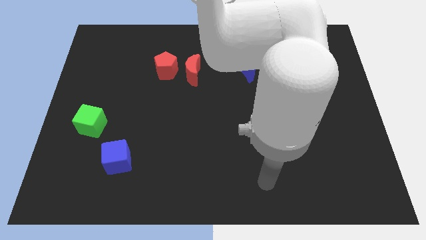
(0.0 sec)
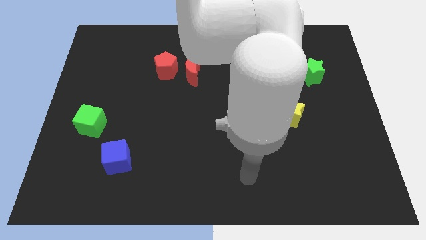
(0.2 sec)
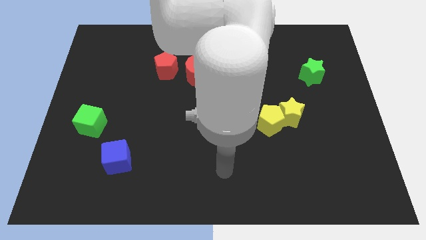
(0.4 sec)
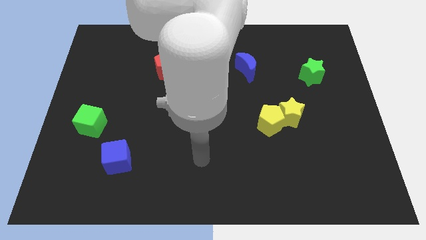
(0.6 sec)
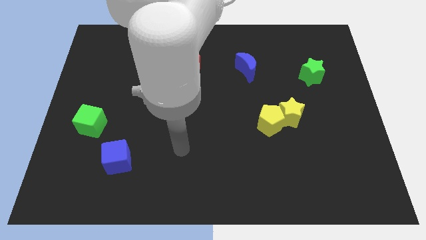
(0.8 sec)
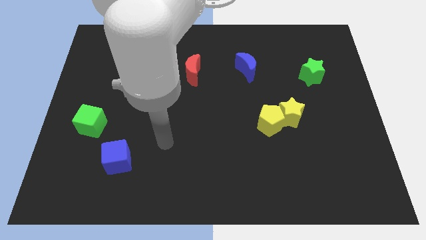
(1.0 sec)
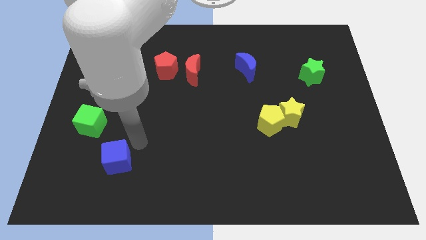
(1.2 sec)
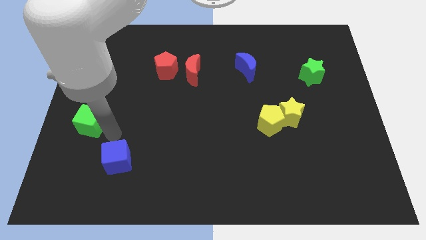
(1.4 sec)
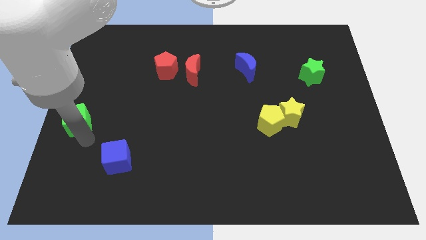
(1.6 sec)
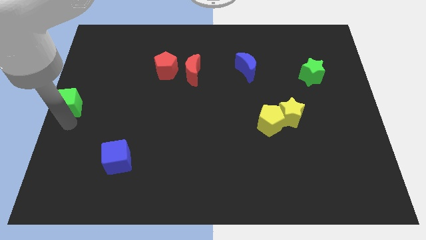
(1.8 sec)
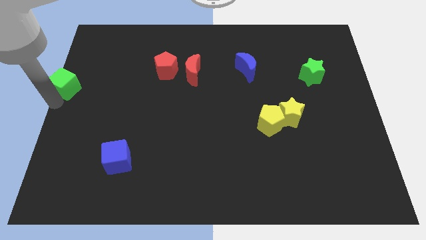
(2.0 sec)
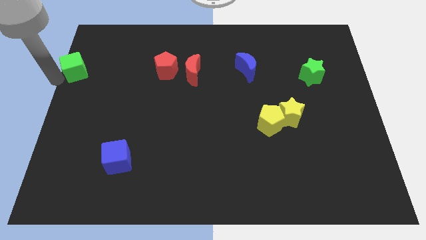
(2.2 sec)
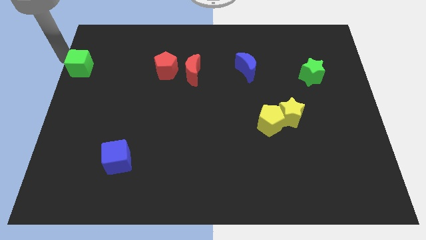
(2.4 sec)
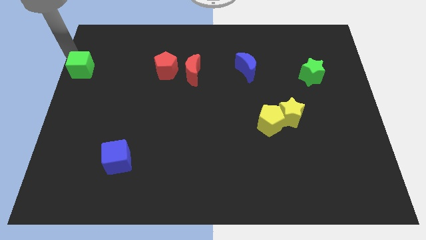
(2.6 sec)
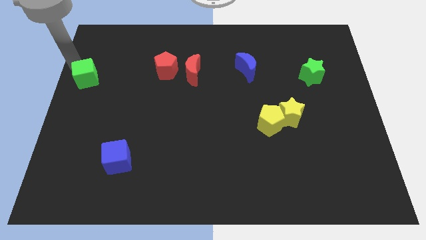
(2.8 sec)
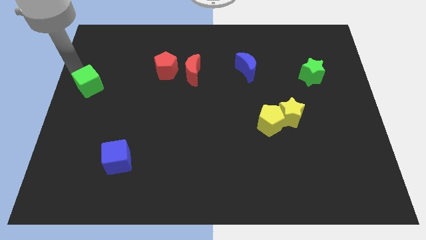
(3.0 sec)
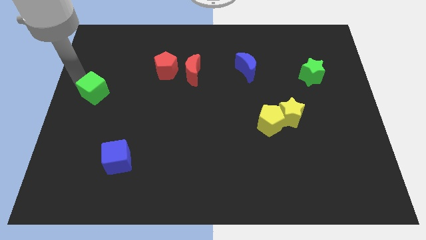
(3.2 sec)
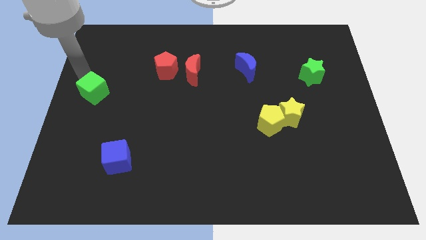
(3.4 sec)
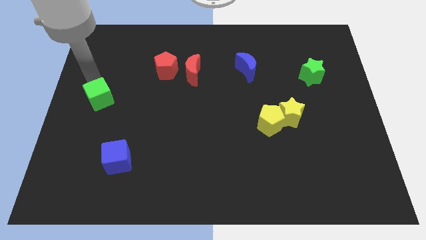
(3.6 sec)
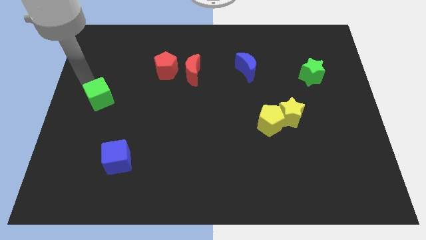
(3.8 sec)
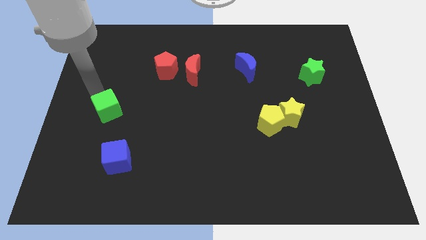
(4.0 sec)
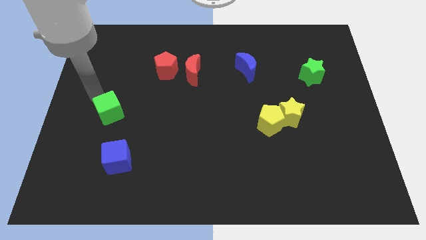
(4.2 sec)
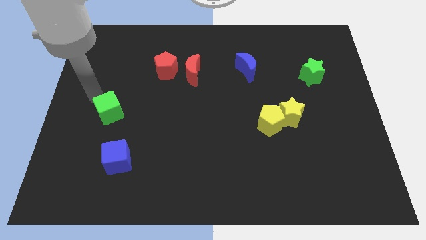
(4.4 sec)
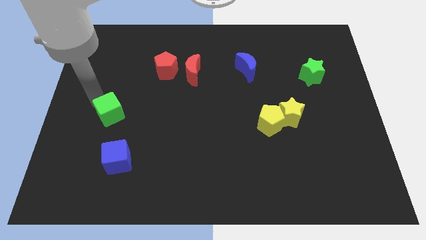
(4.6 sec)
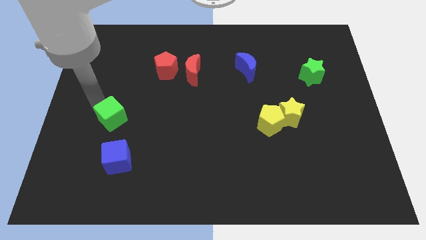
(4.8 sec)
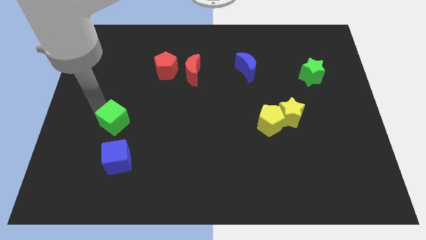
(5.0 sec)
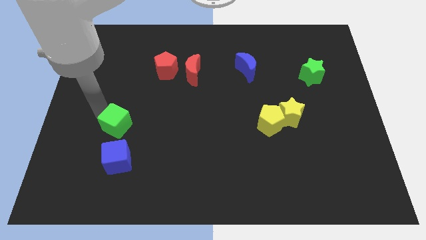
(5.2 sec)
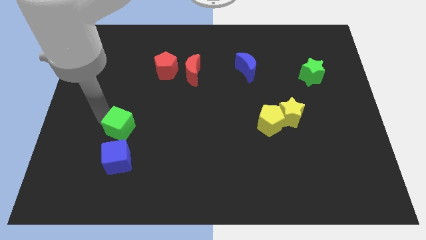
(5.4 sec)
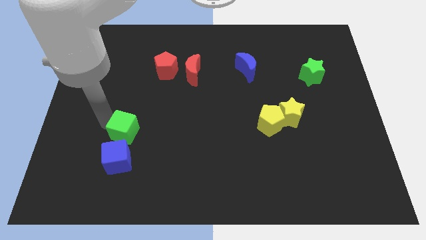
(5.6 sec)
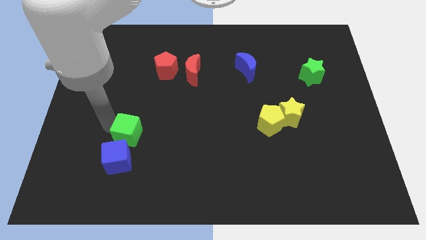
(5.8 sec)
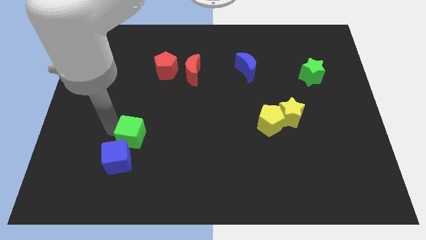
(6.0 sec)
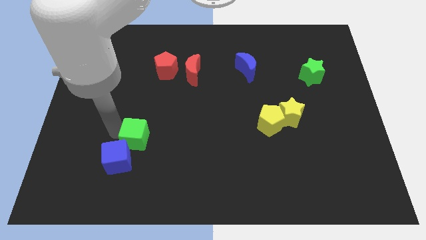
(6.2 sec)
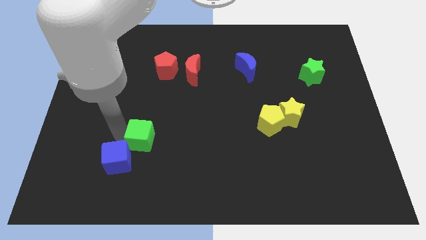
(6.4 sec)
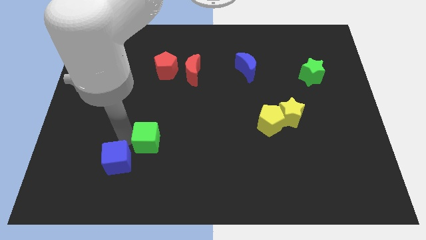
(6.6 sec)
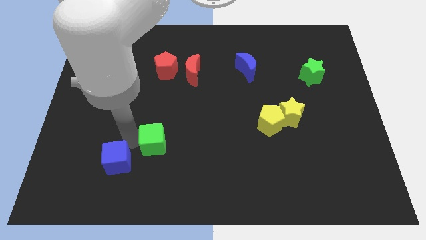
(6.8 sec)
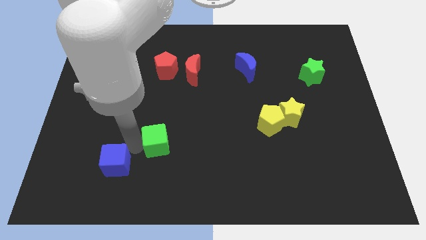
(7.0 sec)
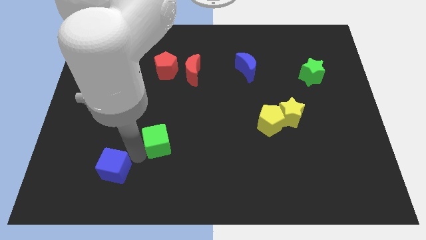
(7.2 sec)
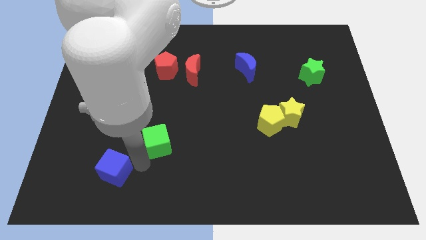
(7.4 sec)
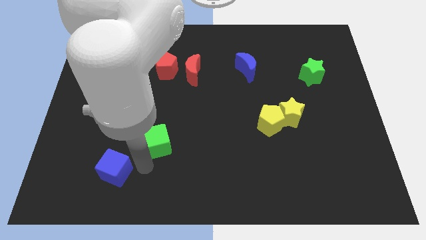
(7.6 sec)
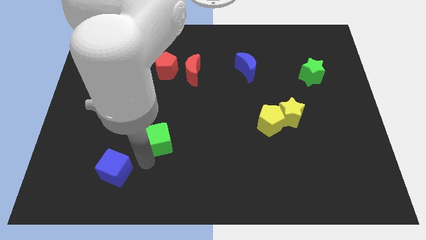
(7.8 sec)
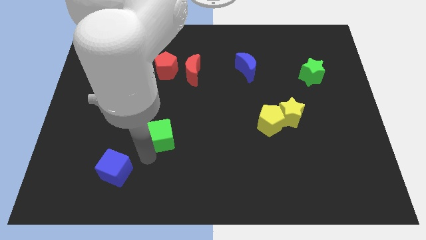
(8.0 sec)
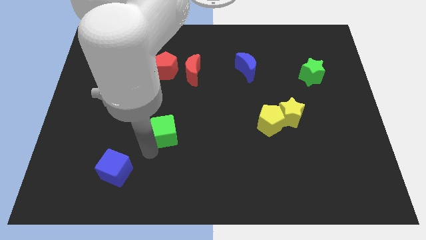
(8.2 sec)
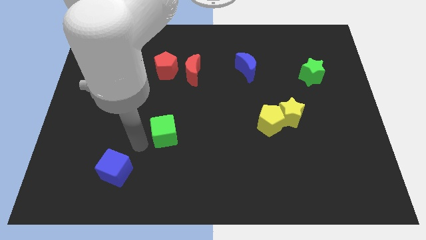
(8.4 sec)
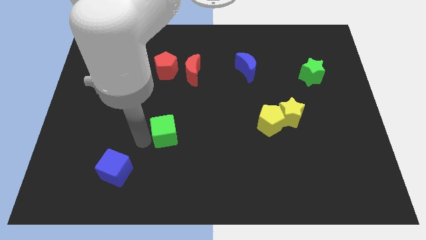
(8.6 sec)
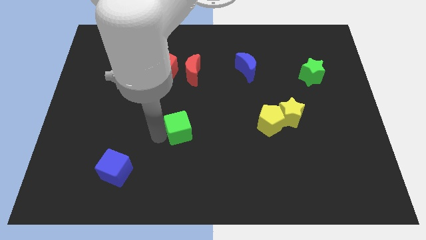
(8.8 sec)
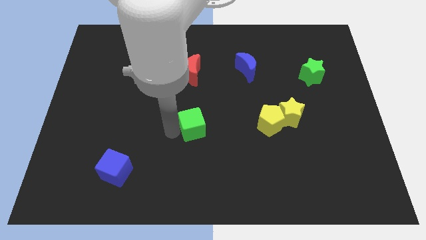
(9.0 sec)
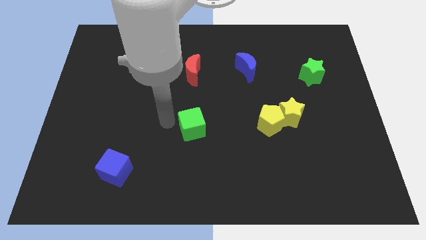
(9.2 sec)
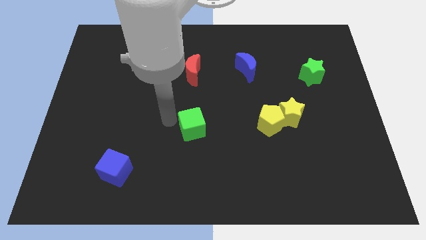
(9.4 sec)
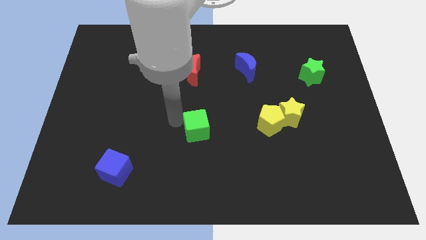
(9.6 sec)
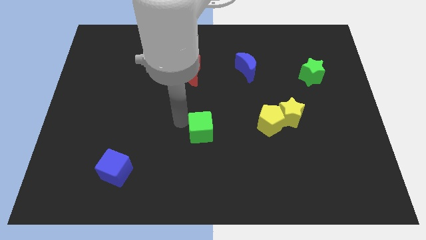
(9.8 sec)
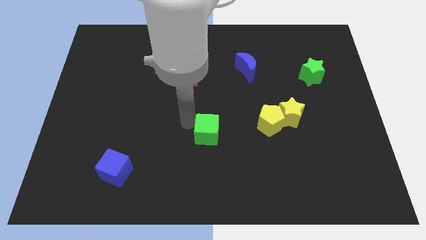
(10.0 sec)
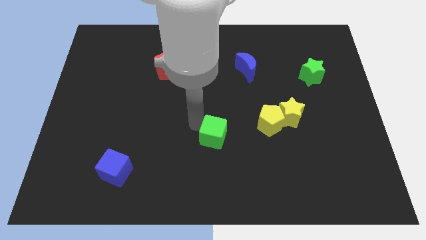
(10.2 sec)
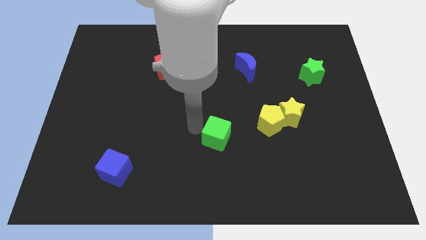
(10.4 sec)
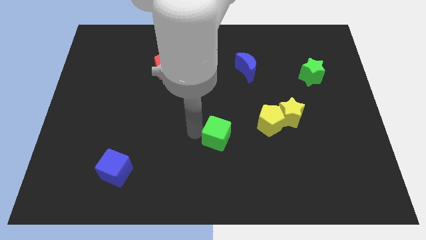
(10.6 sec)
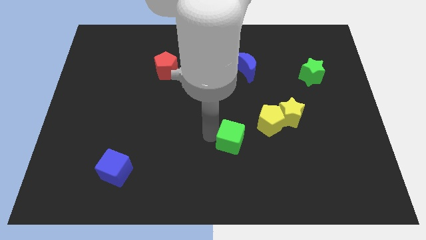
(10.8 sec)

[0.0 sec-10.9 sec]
push the green cube to the bottom left of the yellow pentagon

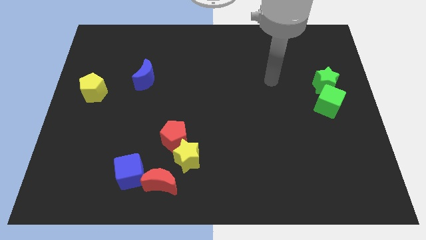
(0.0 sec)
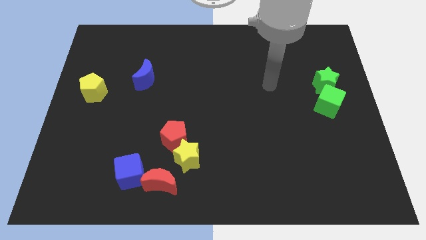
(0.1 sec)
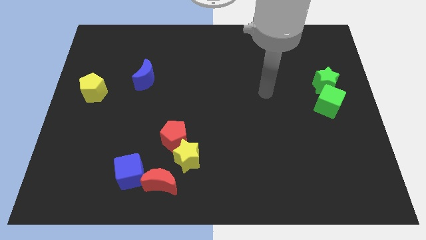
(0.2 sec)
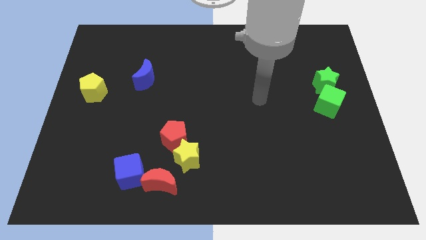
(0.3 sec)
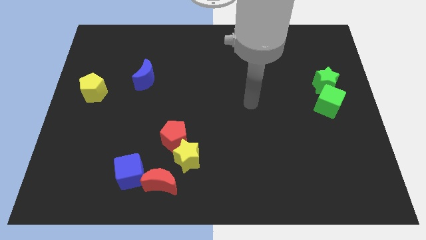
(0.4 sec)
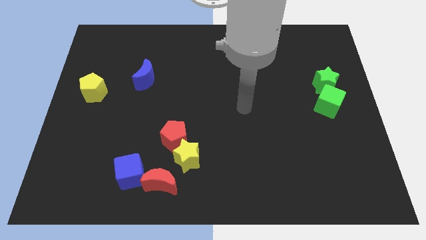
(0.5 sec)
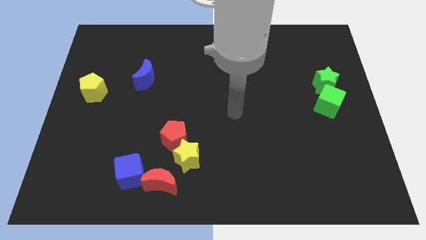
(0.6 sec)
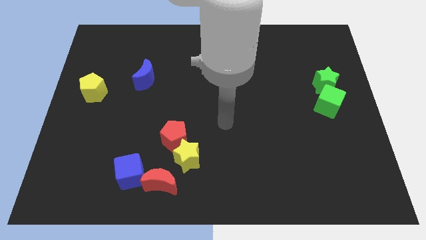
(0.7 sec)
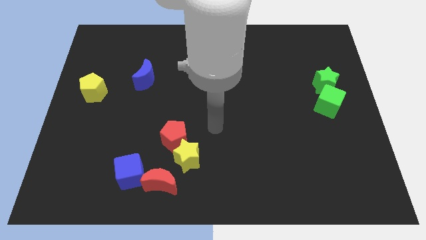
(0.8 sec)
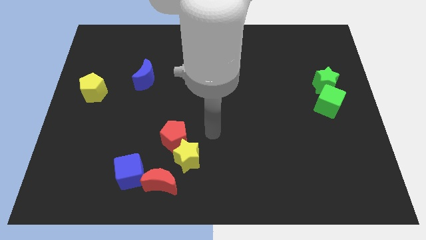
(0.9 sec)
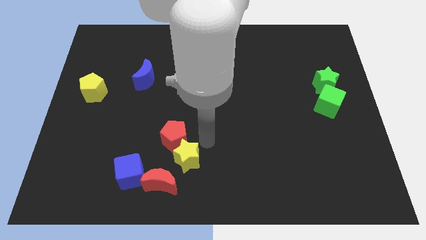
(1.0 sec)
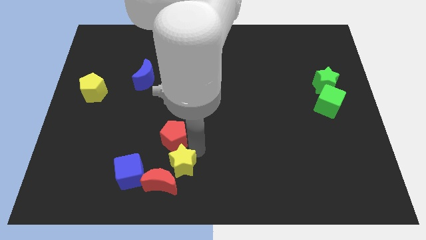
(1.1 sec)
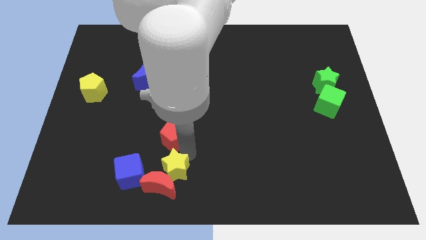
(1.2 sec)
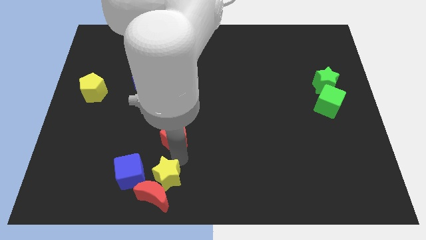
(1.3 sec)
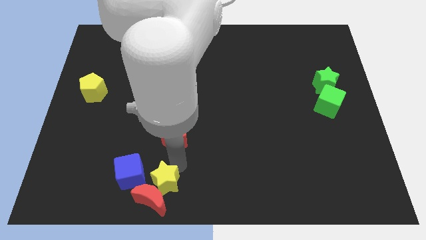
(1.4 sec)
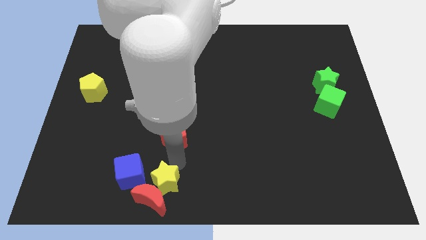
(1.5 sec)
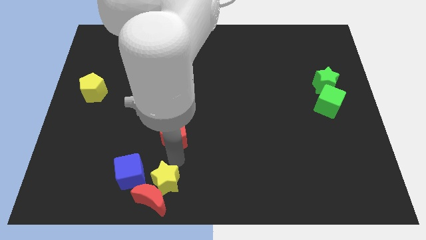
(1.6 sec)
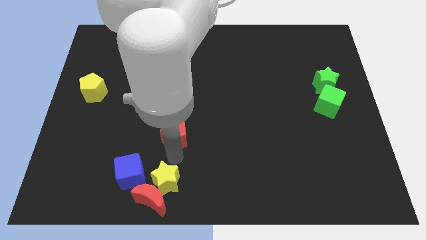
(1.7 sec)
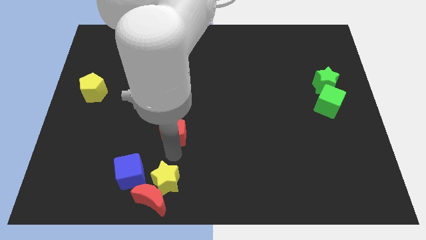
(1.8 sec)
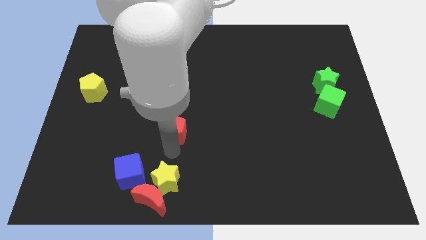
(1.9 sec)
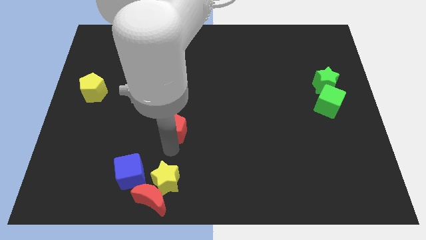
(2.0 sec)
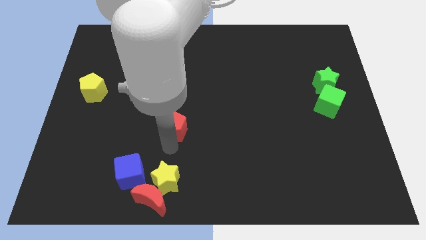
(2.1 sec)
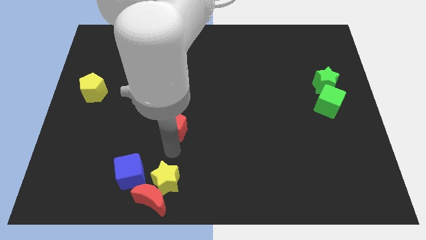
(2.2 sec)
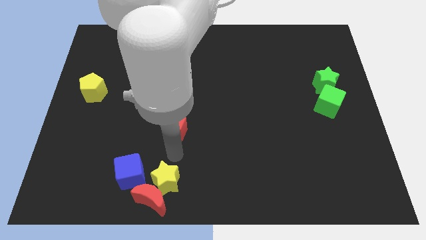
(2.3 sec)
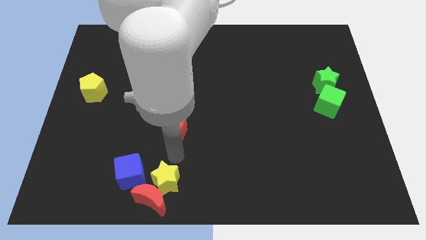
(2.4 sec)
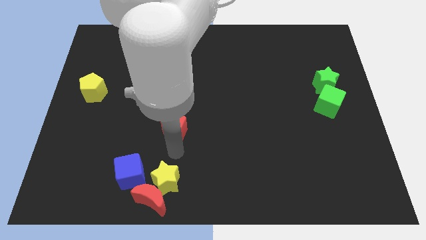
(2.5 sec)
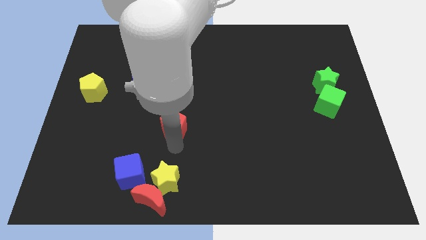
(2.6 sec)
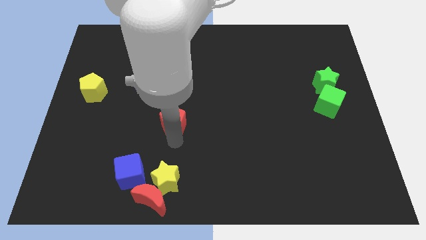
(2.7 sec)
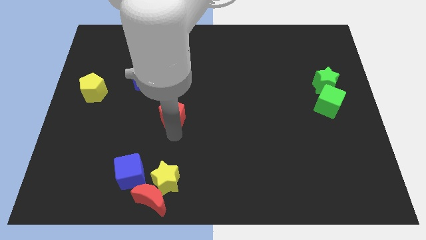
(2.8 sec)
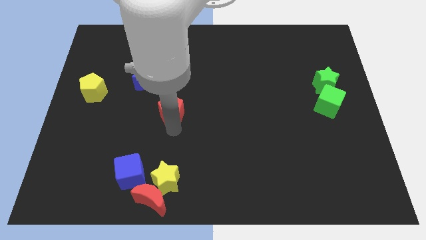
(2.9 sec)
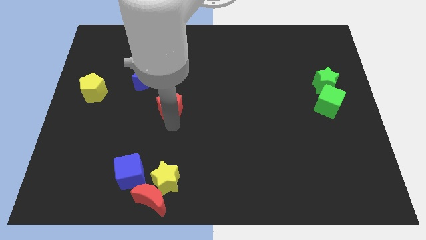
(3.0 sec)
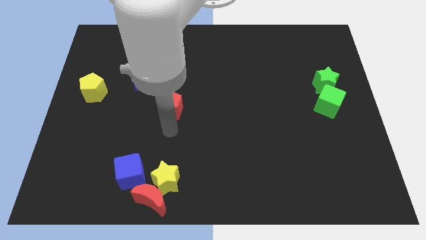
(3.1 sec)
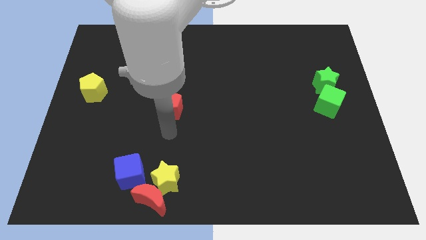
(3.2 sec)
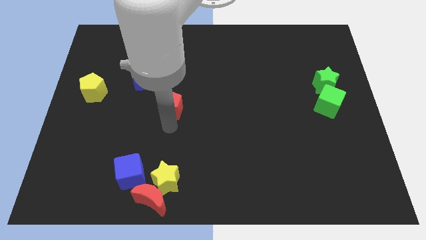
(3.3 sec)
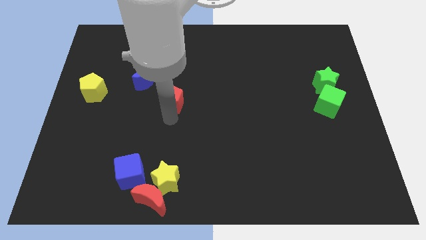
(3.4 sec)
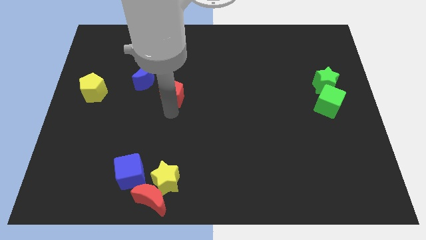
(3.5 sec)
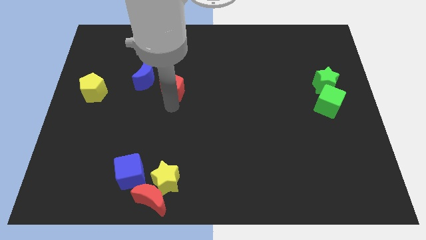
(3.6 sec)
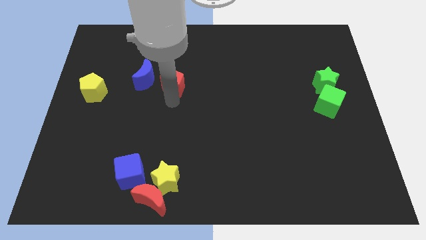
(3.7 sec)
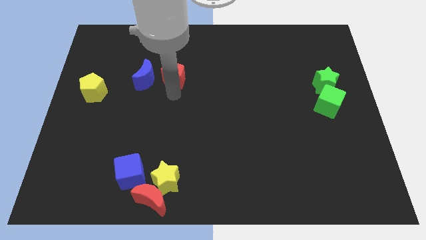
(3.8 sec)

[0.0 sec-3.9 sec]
push the red pentagon to the top right side of the blue moon
